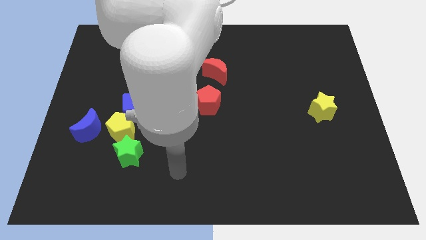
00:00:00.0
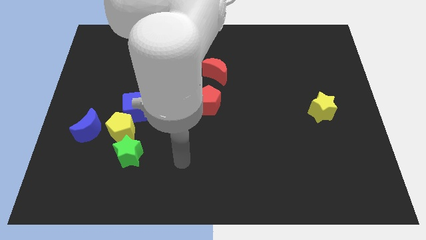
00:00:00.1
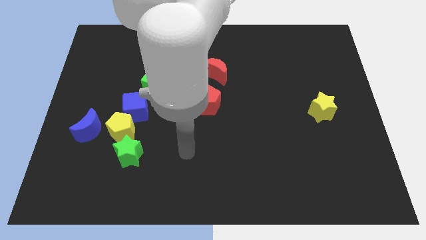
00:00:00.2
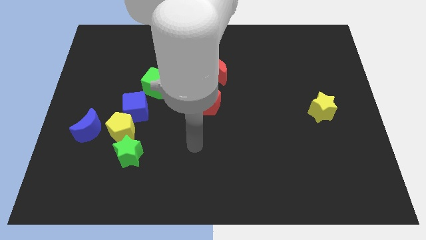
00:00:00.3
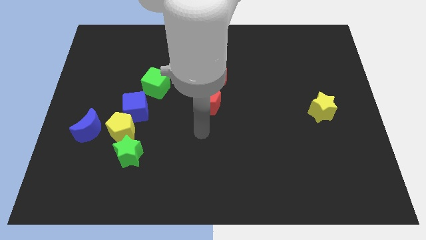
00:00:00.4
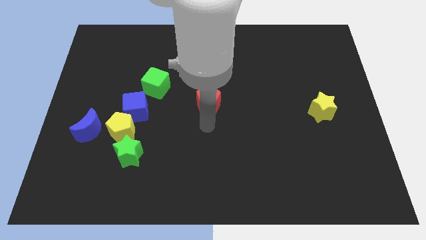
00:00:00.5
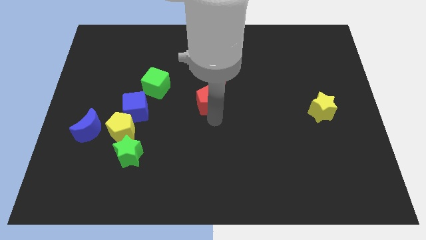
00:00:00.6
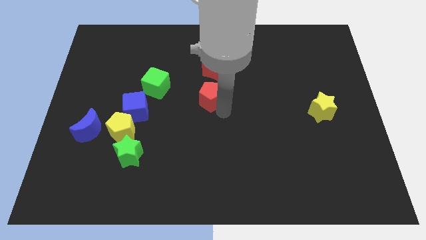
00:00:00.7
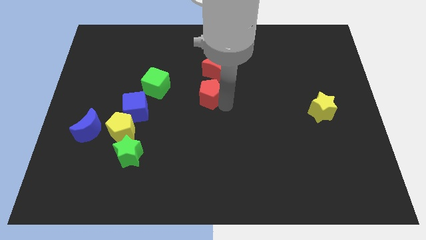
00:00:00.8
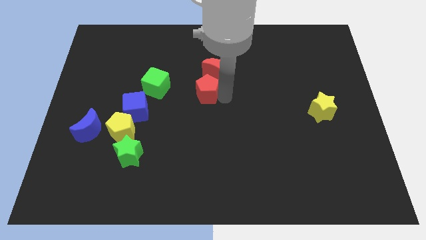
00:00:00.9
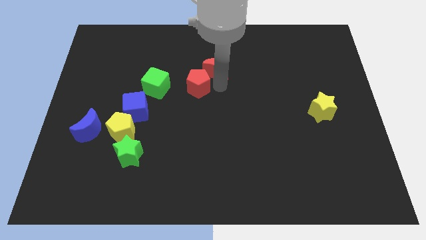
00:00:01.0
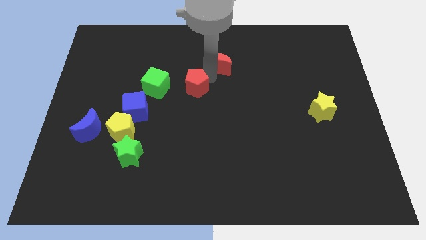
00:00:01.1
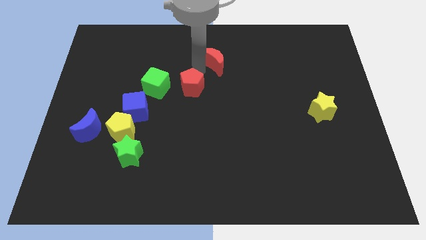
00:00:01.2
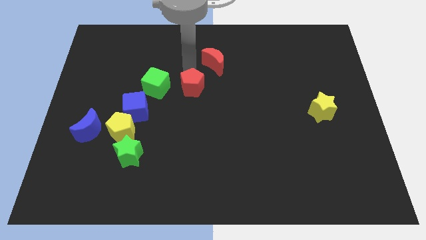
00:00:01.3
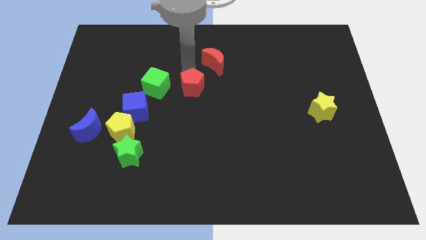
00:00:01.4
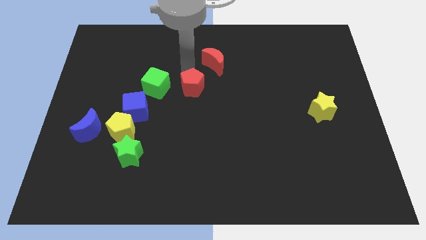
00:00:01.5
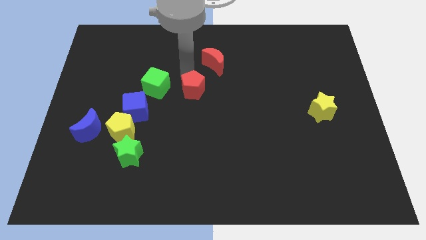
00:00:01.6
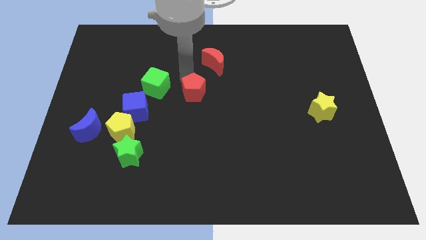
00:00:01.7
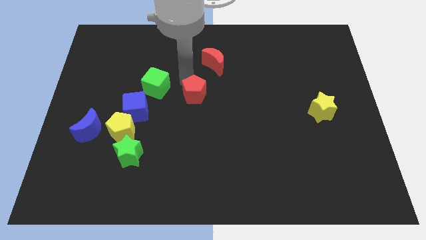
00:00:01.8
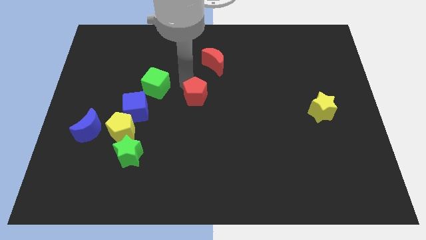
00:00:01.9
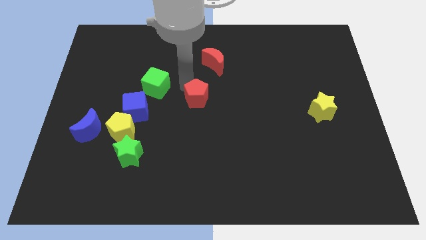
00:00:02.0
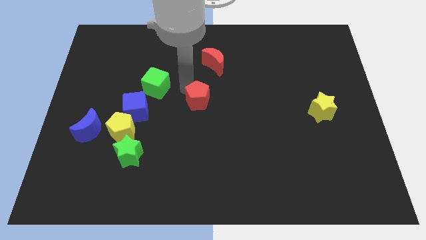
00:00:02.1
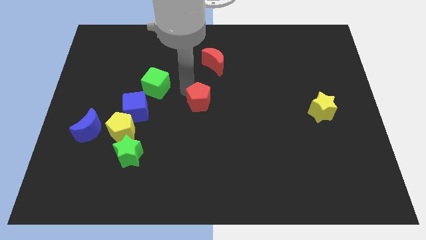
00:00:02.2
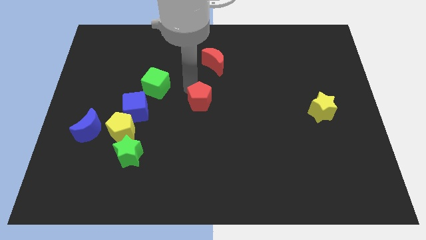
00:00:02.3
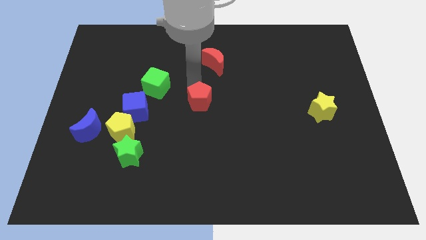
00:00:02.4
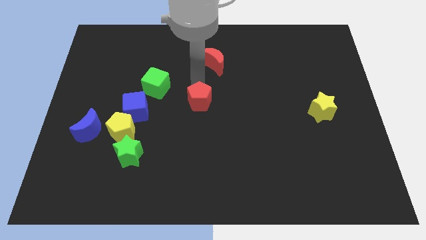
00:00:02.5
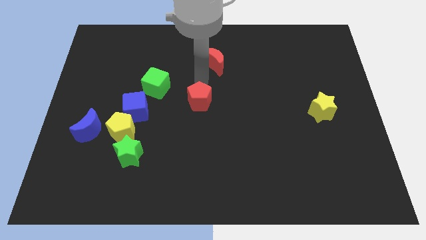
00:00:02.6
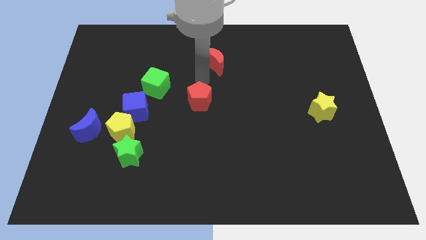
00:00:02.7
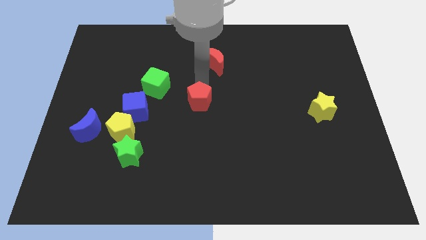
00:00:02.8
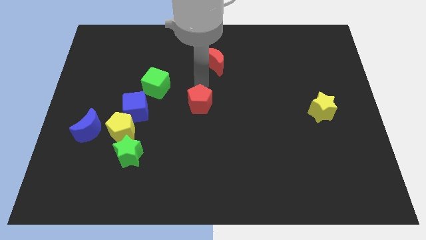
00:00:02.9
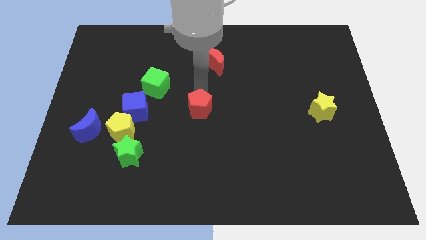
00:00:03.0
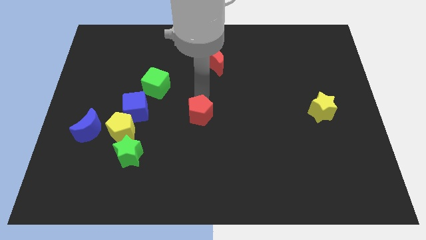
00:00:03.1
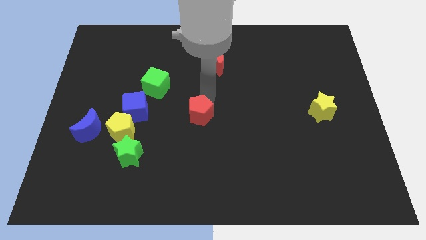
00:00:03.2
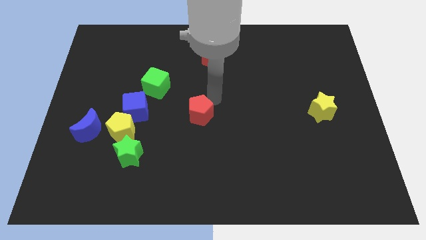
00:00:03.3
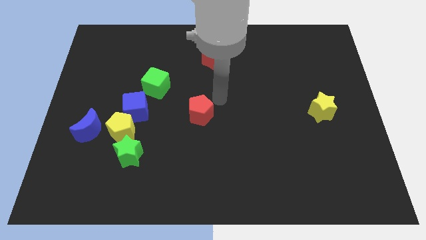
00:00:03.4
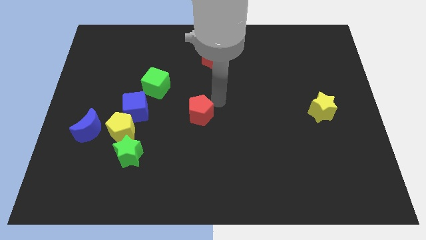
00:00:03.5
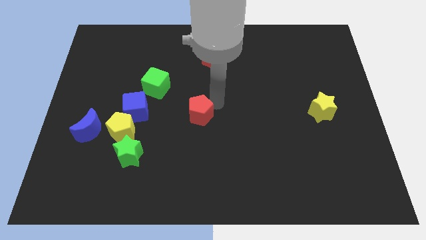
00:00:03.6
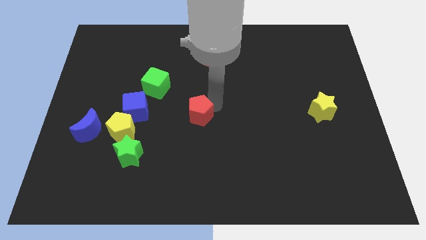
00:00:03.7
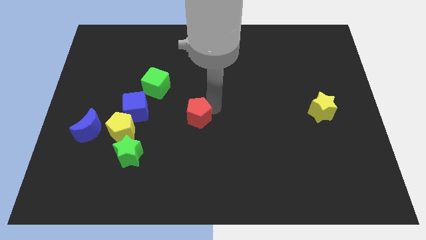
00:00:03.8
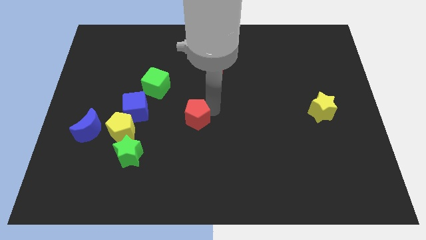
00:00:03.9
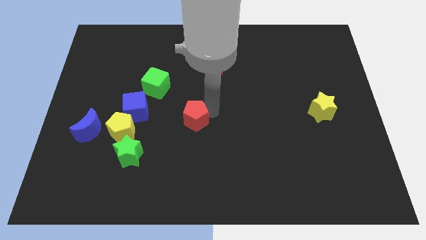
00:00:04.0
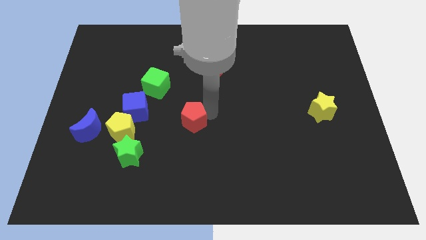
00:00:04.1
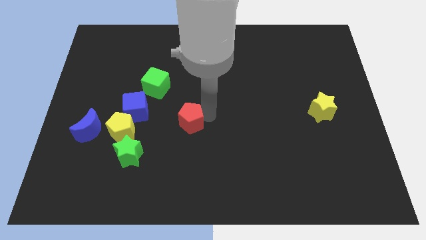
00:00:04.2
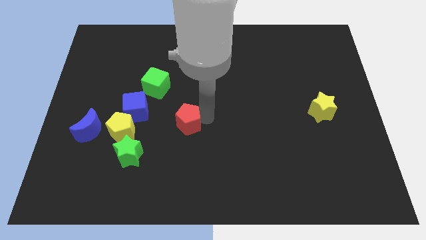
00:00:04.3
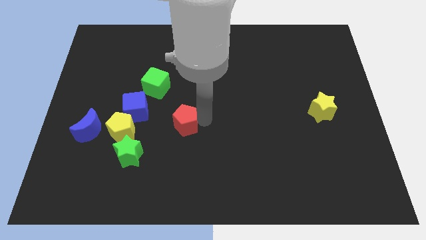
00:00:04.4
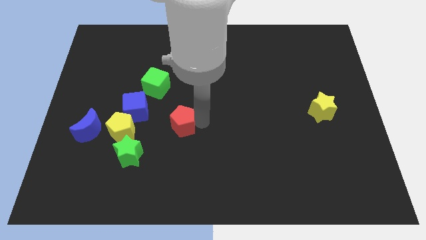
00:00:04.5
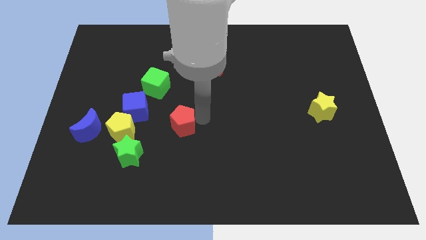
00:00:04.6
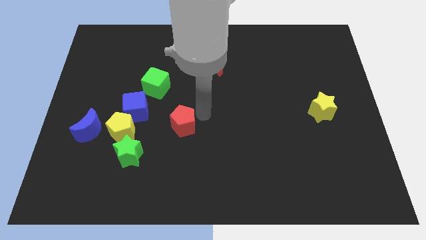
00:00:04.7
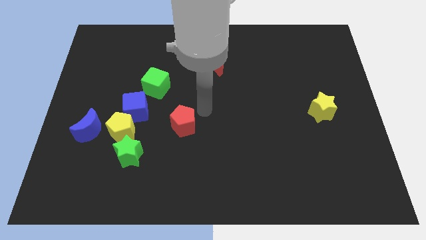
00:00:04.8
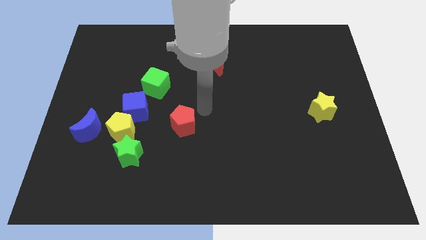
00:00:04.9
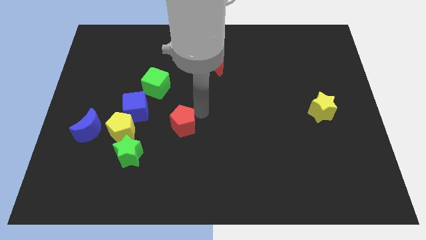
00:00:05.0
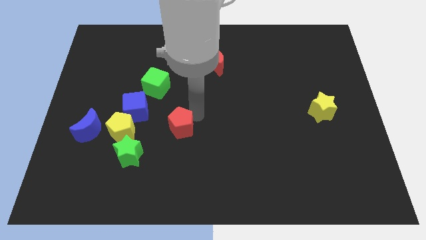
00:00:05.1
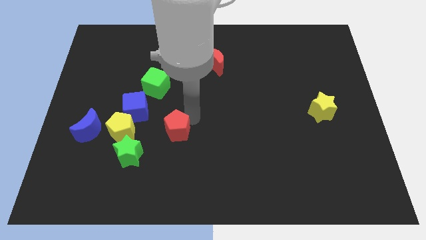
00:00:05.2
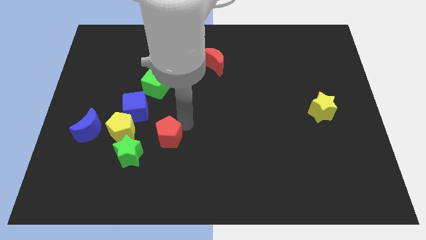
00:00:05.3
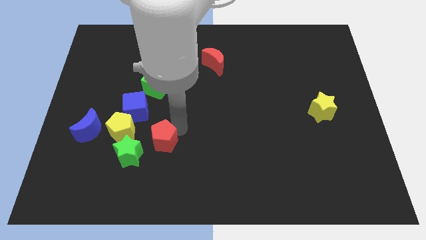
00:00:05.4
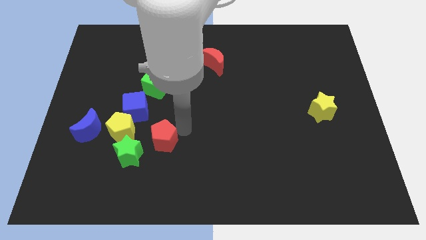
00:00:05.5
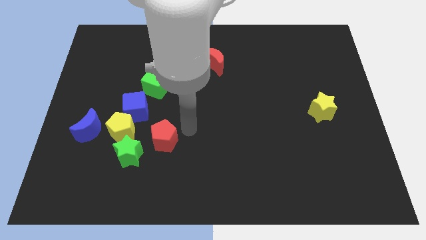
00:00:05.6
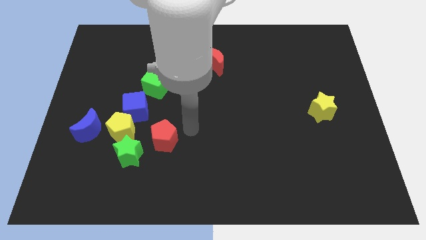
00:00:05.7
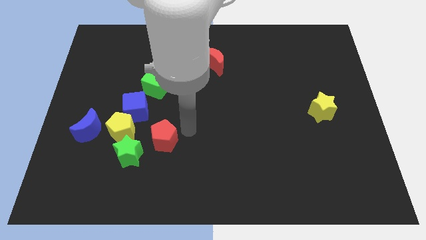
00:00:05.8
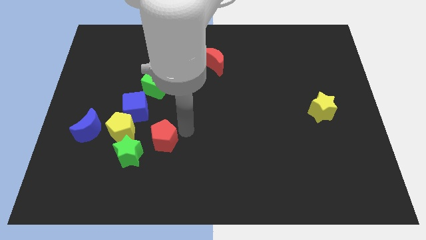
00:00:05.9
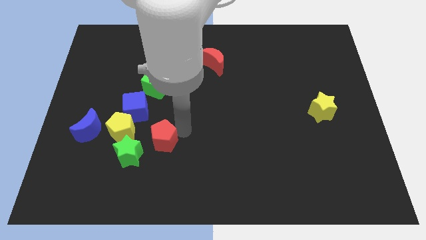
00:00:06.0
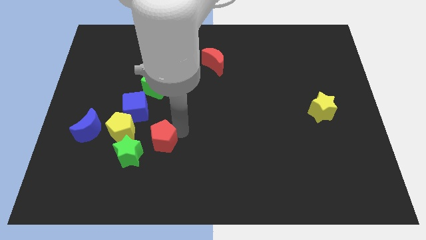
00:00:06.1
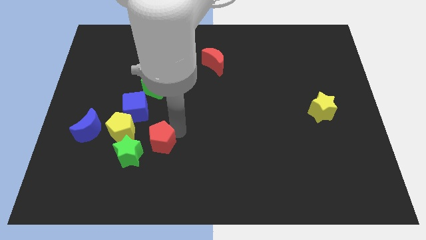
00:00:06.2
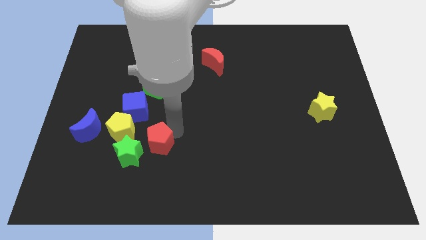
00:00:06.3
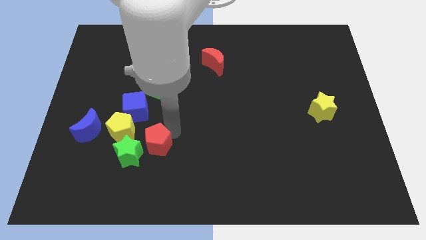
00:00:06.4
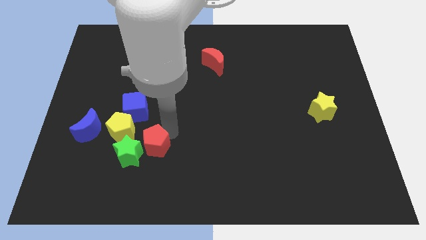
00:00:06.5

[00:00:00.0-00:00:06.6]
slide the red pentagon to the green star

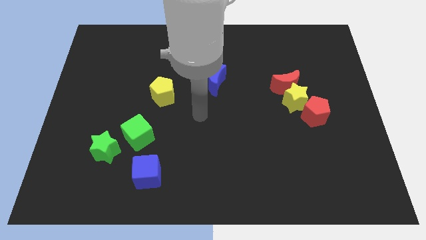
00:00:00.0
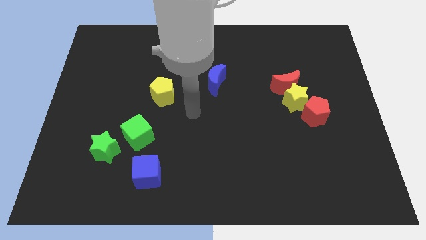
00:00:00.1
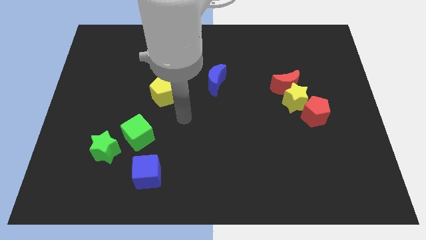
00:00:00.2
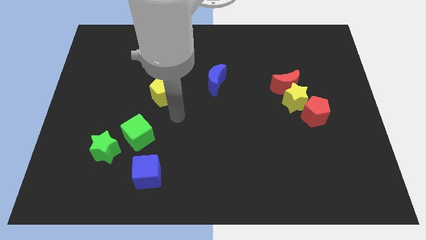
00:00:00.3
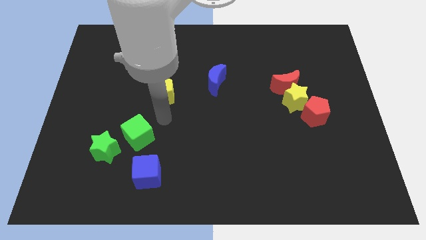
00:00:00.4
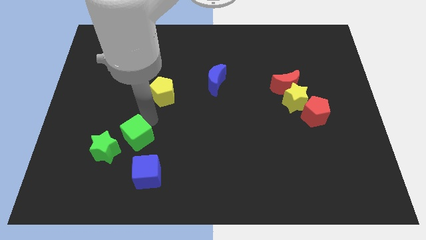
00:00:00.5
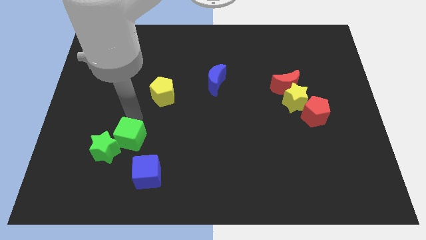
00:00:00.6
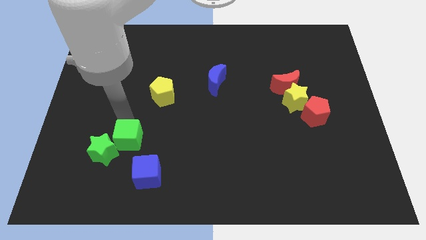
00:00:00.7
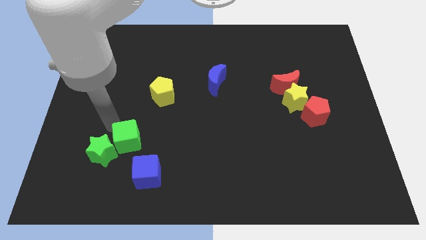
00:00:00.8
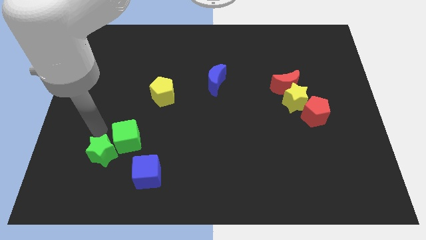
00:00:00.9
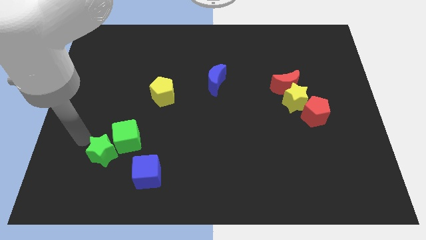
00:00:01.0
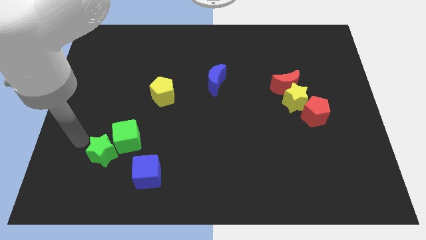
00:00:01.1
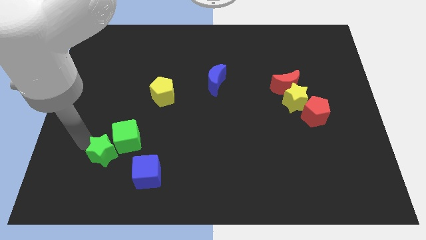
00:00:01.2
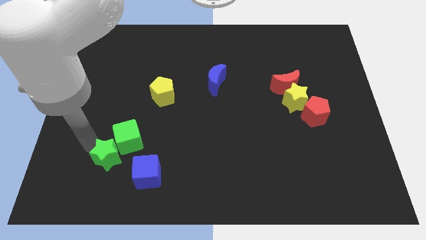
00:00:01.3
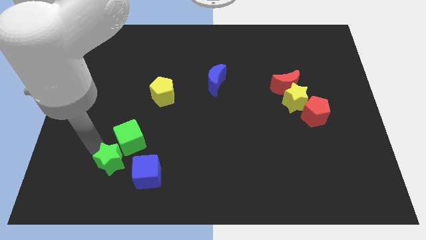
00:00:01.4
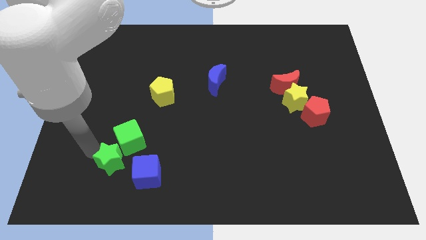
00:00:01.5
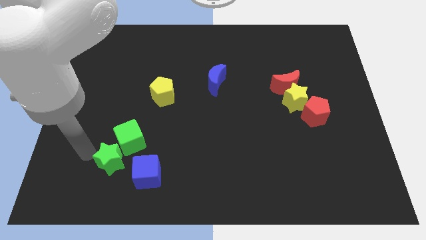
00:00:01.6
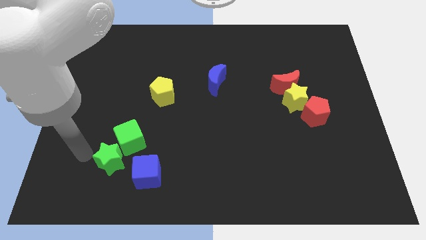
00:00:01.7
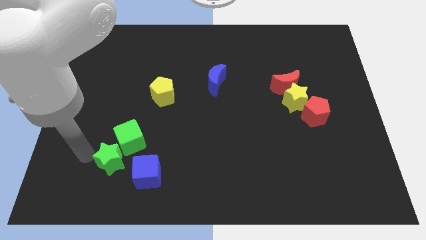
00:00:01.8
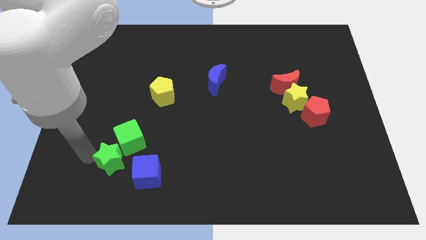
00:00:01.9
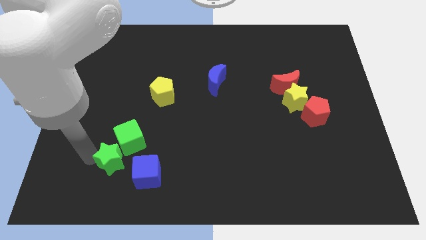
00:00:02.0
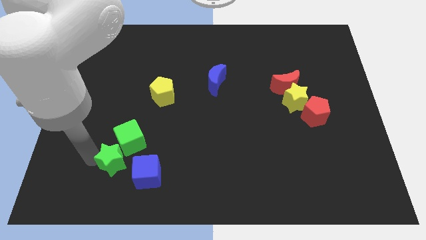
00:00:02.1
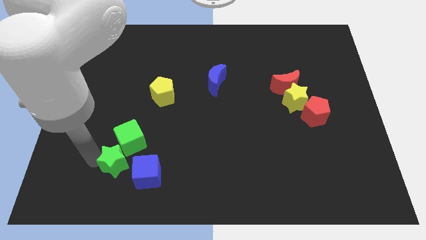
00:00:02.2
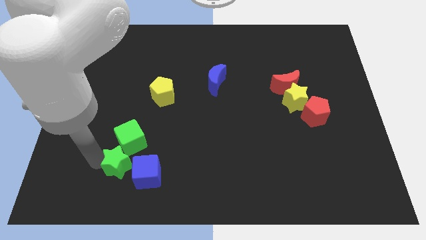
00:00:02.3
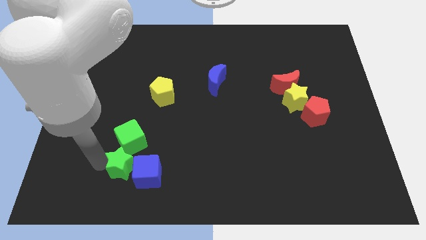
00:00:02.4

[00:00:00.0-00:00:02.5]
put the green star next to the blue cube
